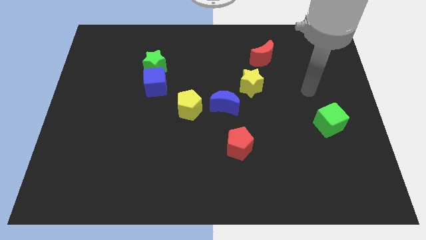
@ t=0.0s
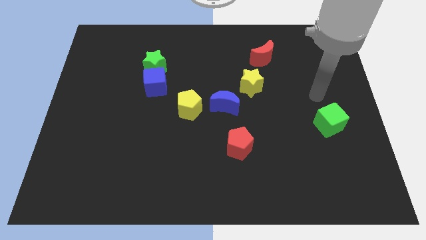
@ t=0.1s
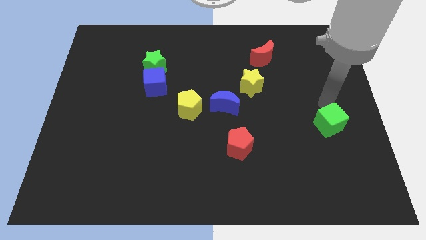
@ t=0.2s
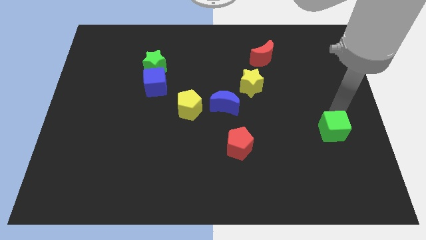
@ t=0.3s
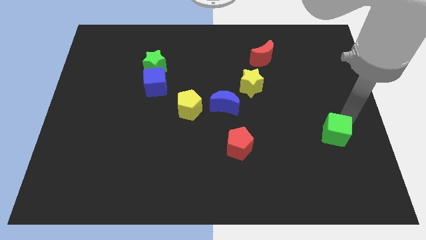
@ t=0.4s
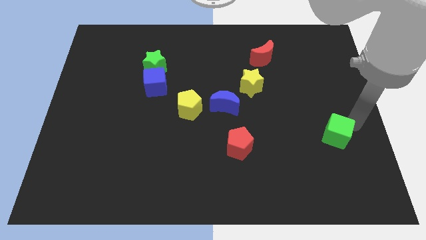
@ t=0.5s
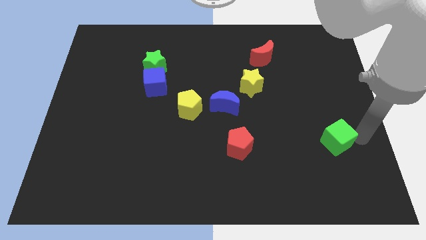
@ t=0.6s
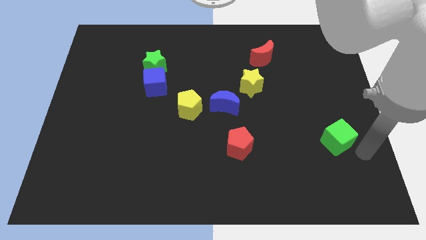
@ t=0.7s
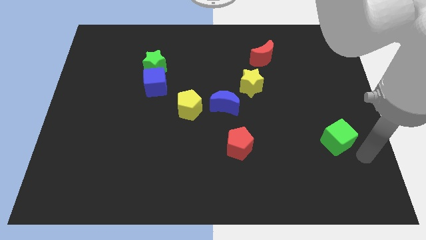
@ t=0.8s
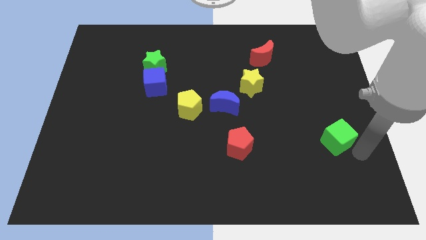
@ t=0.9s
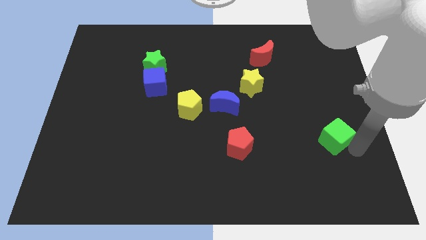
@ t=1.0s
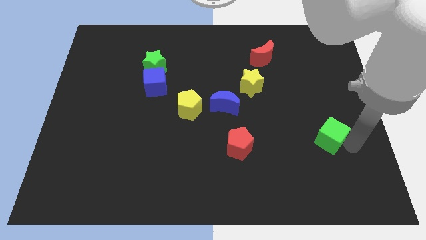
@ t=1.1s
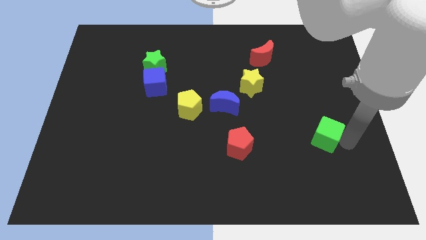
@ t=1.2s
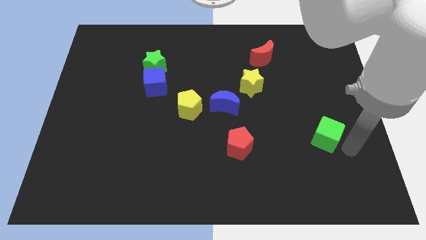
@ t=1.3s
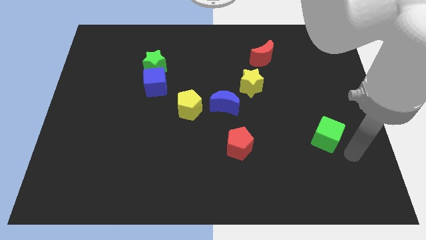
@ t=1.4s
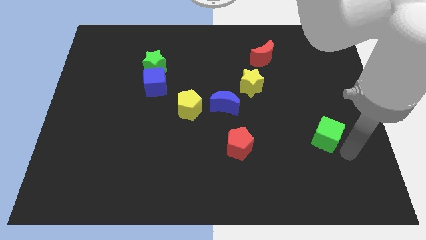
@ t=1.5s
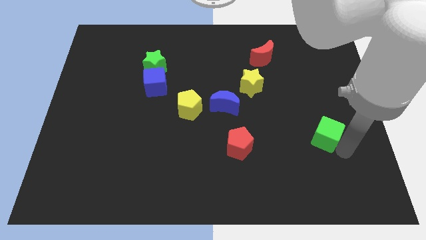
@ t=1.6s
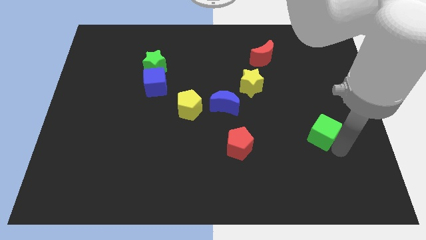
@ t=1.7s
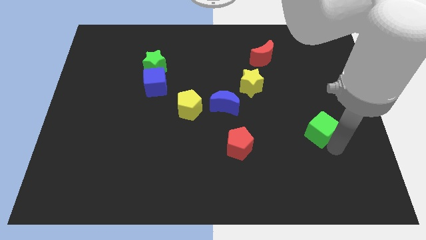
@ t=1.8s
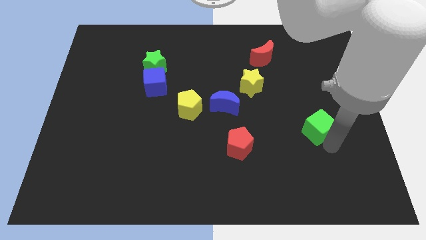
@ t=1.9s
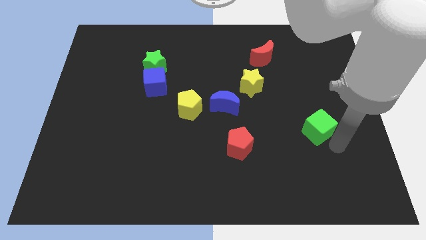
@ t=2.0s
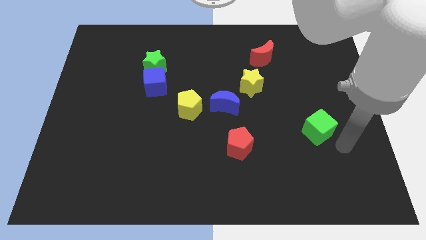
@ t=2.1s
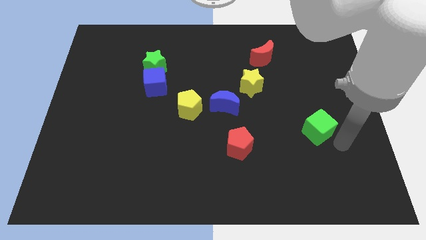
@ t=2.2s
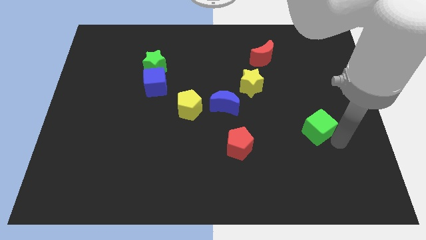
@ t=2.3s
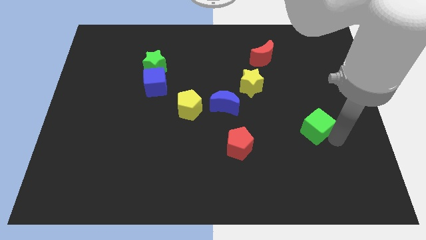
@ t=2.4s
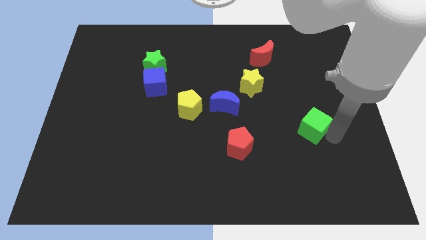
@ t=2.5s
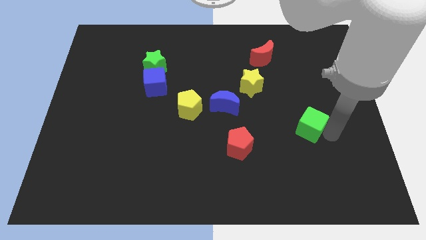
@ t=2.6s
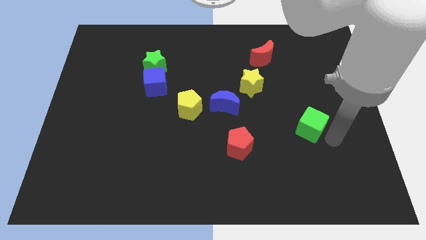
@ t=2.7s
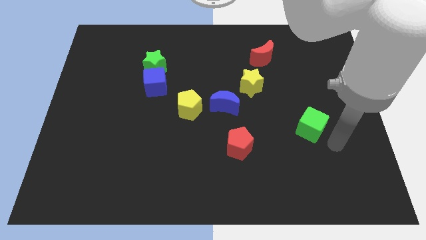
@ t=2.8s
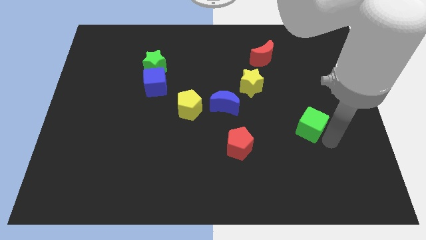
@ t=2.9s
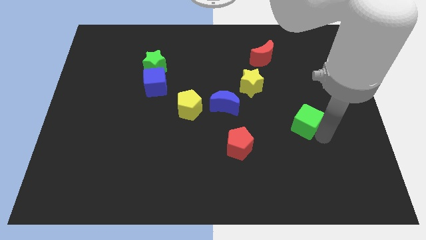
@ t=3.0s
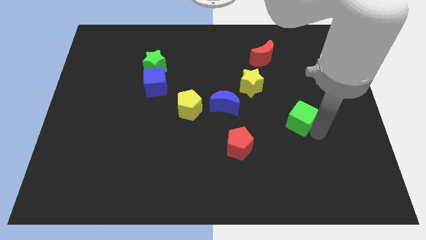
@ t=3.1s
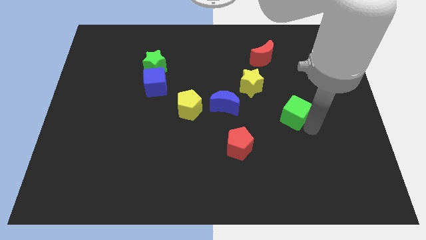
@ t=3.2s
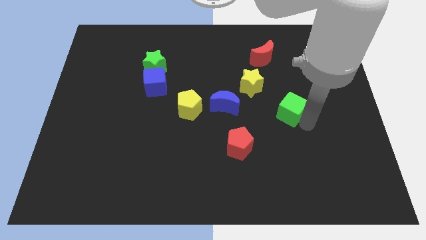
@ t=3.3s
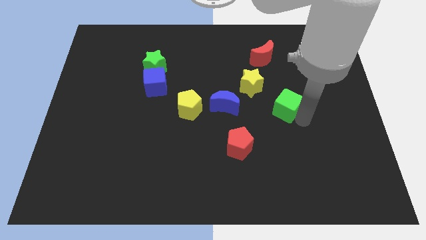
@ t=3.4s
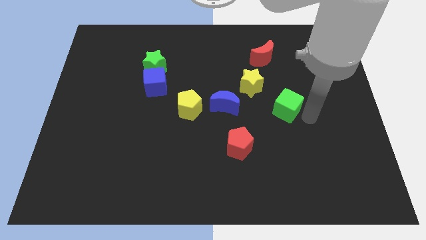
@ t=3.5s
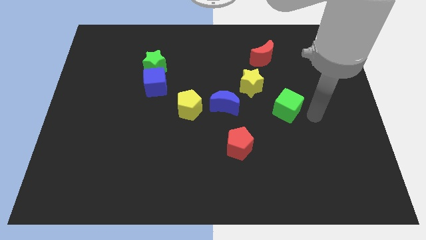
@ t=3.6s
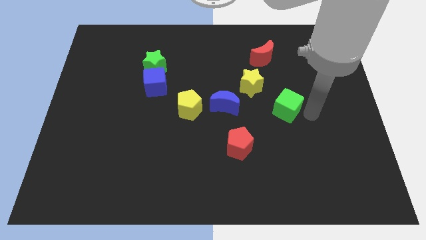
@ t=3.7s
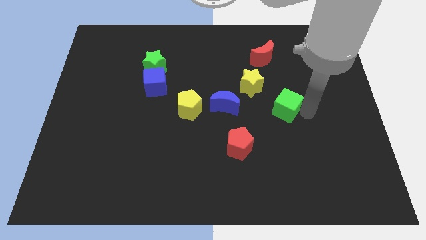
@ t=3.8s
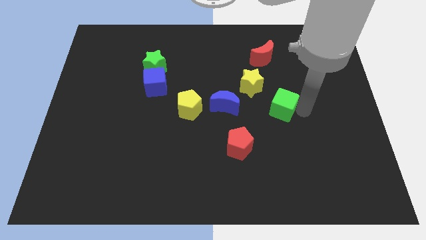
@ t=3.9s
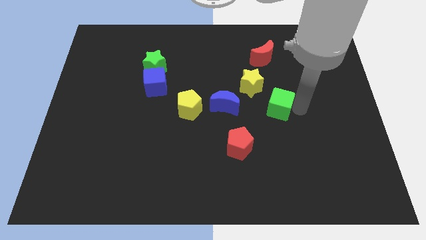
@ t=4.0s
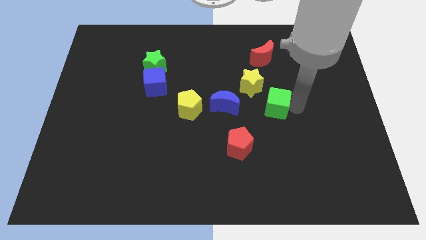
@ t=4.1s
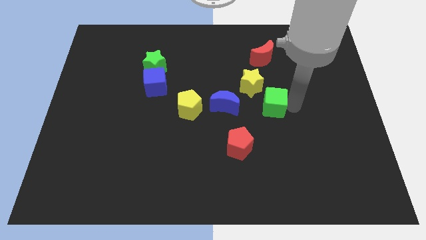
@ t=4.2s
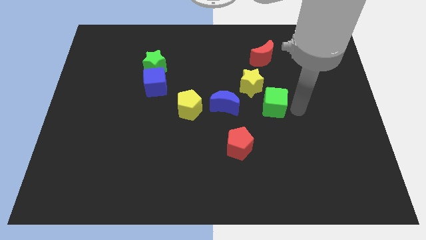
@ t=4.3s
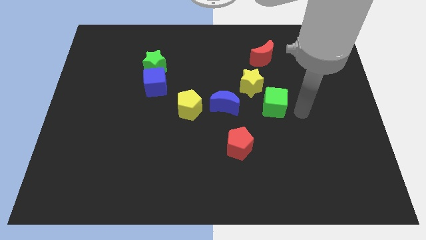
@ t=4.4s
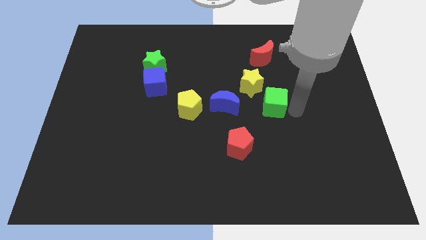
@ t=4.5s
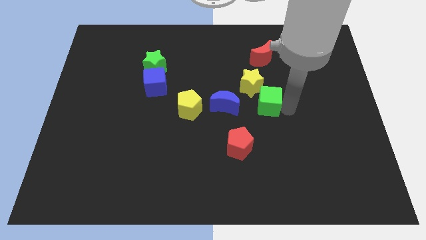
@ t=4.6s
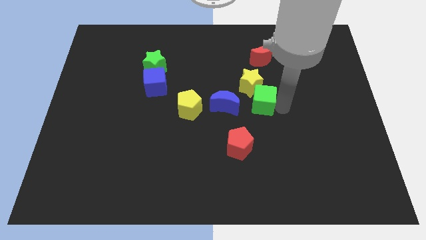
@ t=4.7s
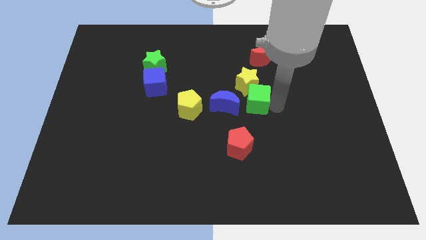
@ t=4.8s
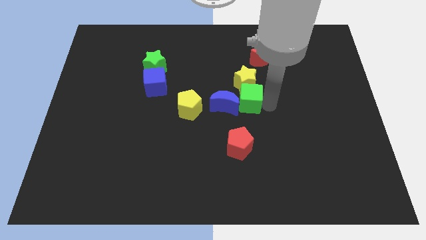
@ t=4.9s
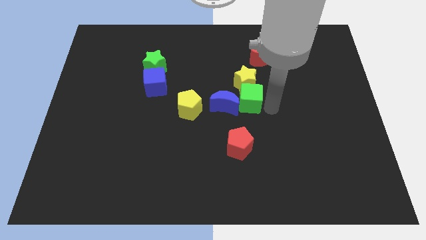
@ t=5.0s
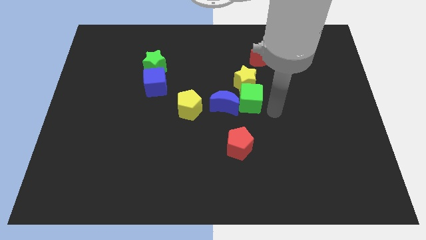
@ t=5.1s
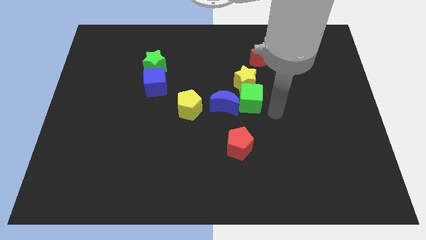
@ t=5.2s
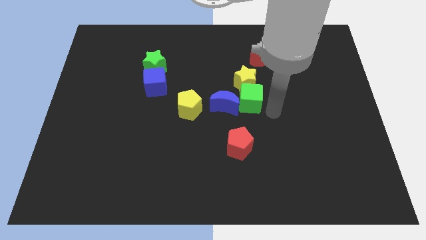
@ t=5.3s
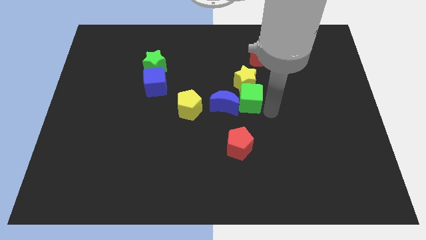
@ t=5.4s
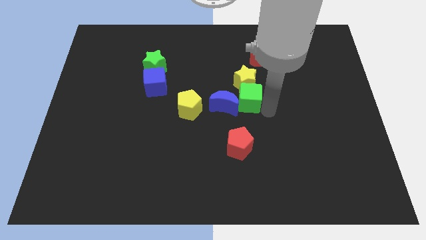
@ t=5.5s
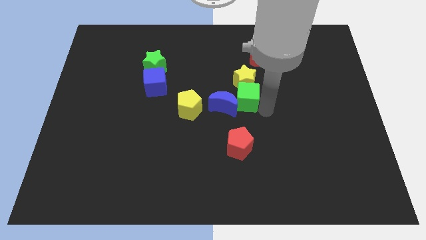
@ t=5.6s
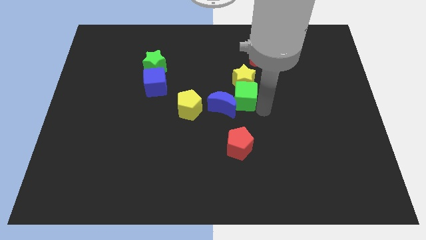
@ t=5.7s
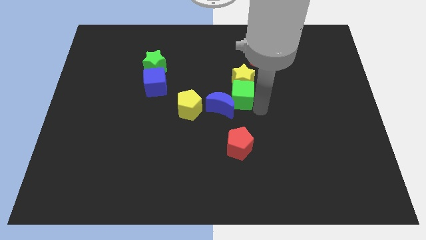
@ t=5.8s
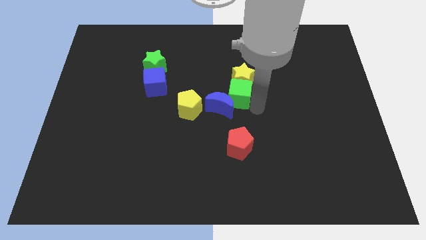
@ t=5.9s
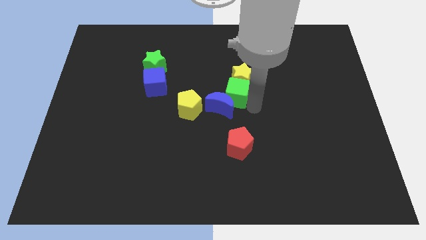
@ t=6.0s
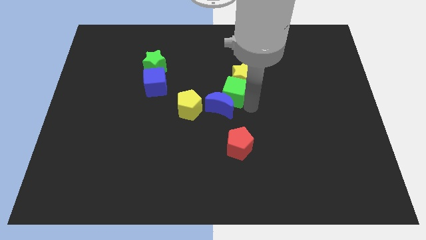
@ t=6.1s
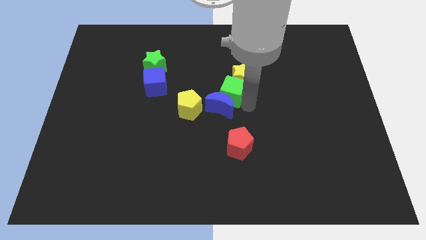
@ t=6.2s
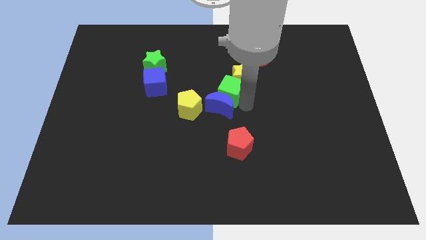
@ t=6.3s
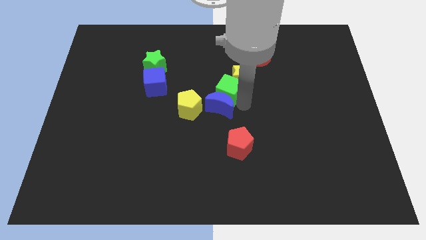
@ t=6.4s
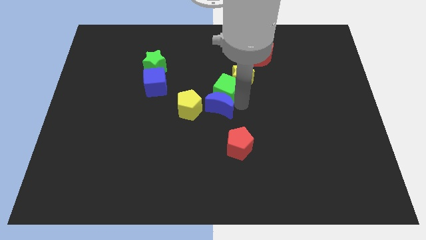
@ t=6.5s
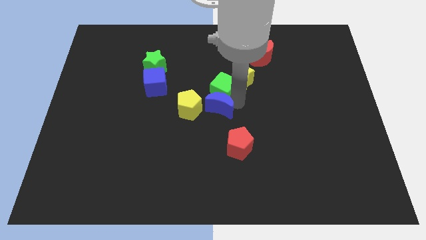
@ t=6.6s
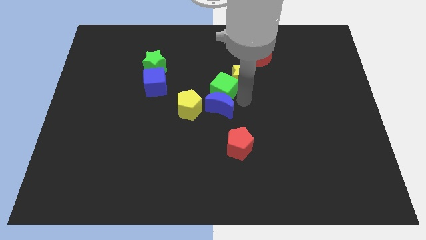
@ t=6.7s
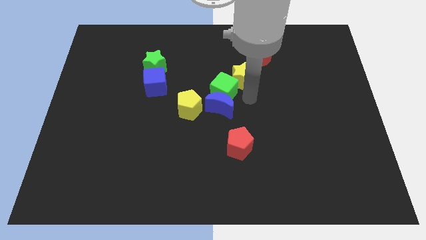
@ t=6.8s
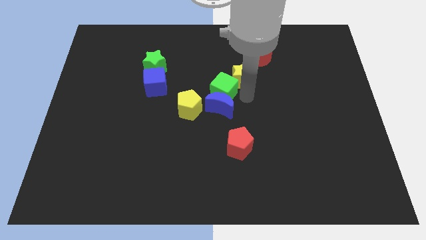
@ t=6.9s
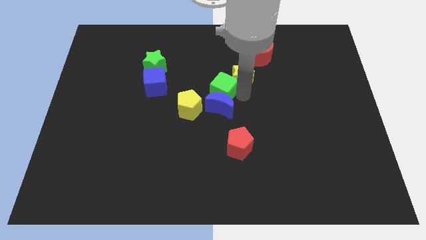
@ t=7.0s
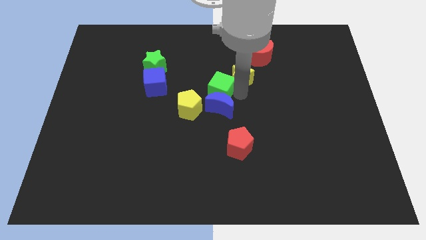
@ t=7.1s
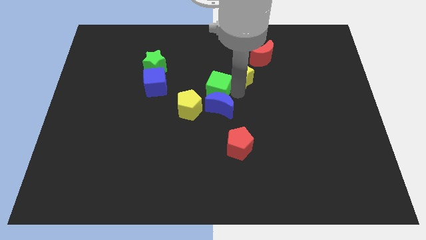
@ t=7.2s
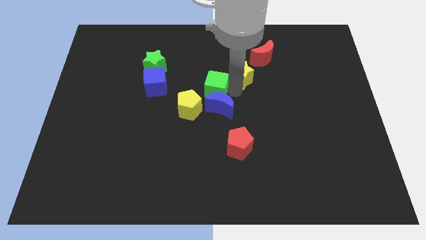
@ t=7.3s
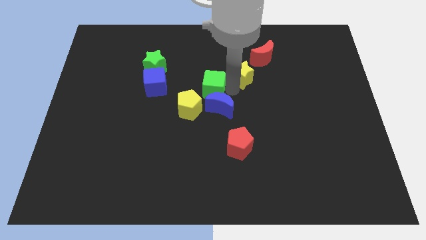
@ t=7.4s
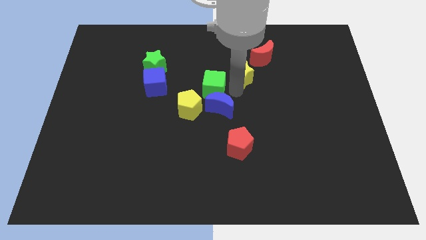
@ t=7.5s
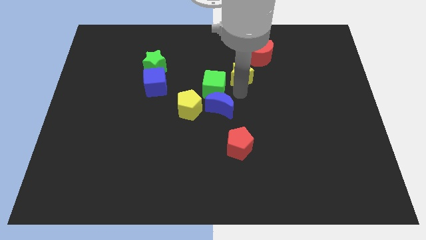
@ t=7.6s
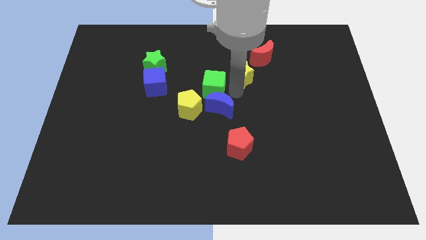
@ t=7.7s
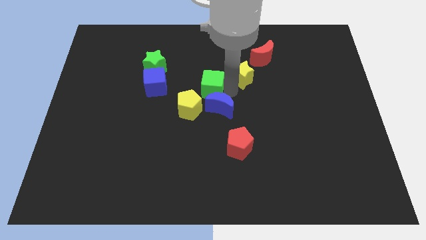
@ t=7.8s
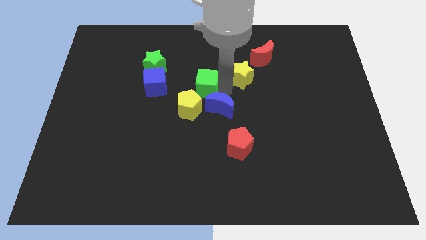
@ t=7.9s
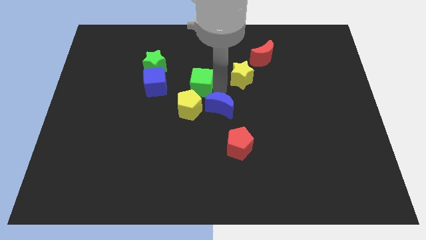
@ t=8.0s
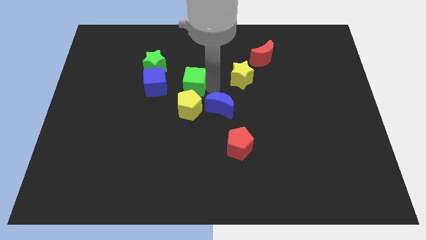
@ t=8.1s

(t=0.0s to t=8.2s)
slide the green cube to the bottom right side of the green star
